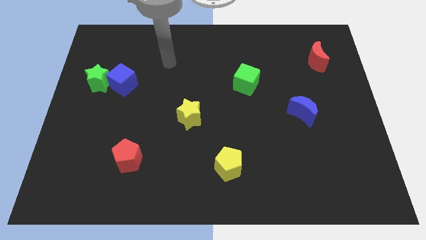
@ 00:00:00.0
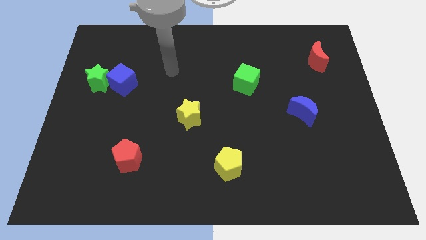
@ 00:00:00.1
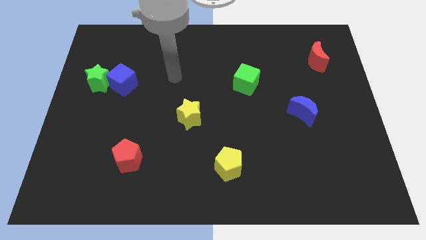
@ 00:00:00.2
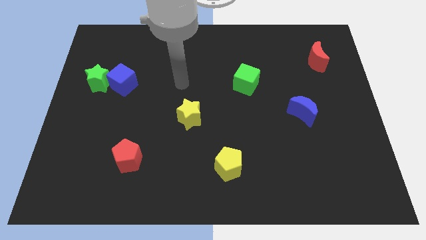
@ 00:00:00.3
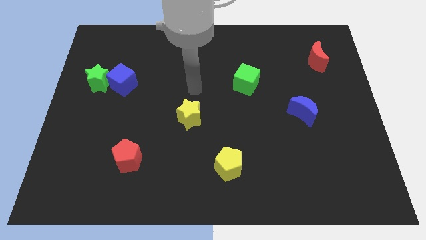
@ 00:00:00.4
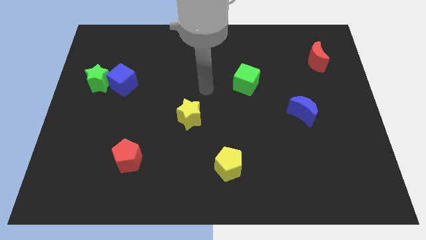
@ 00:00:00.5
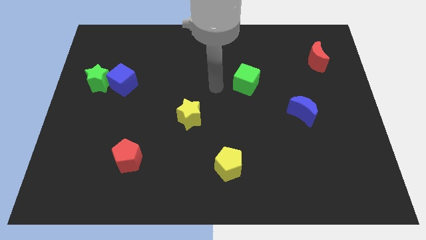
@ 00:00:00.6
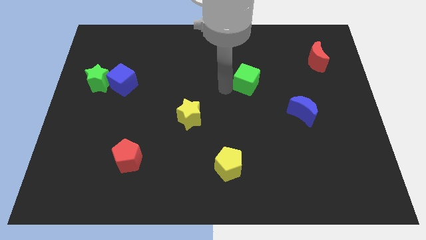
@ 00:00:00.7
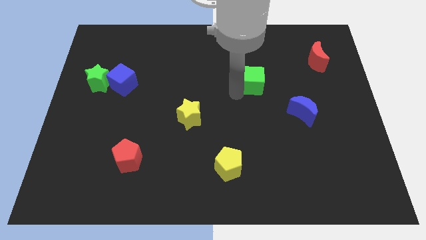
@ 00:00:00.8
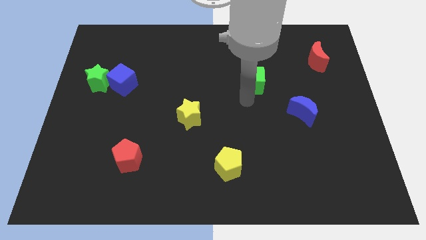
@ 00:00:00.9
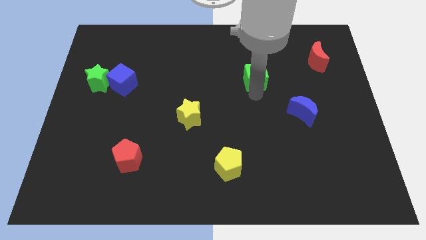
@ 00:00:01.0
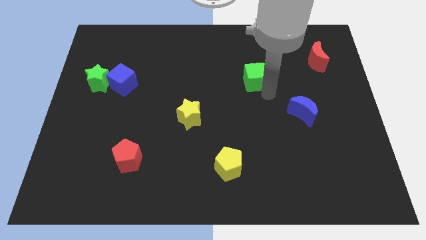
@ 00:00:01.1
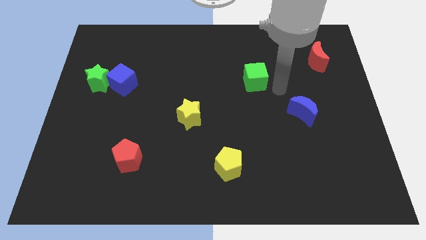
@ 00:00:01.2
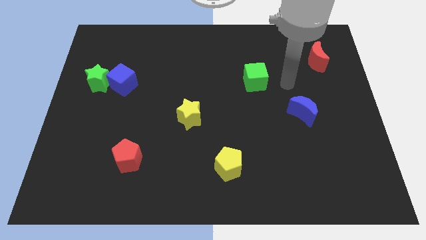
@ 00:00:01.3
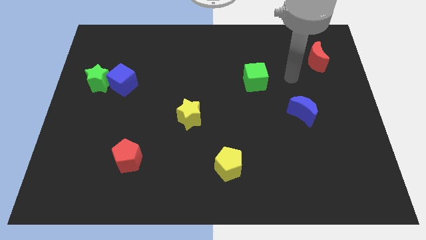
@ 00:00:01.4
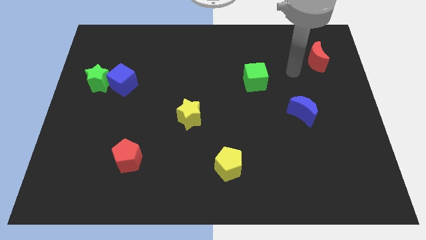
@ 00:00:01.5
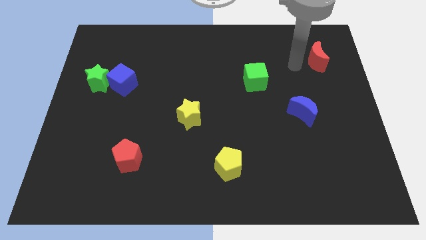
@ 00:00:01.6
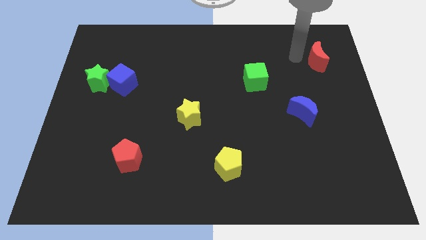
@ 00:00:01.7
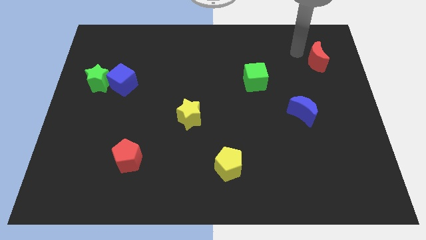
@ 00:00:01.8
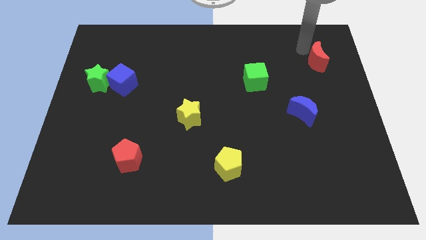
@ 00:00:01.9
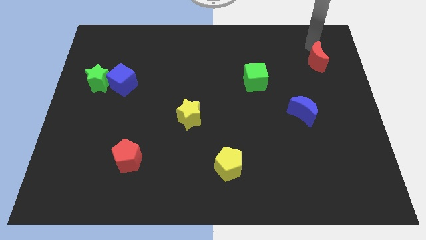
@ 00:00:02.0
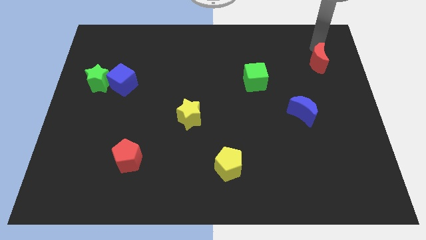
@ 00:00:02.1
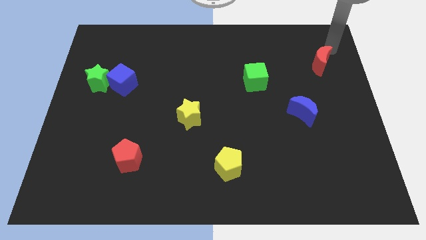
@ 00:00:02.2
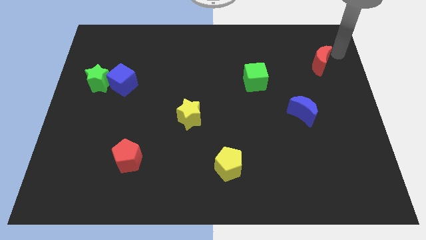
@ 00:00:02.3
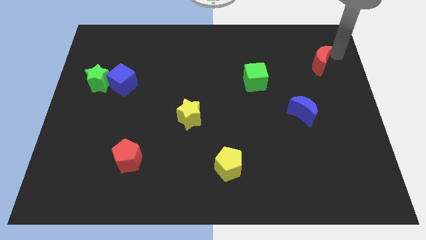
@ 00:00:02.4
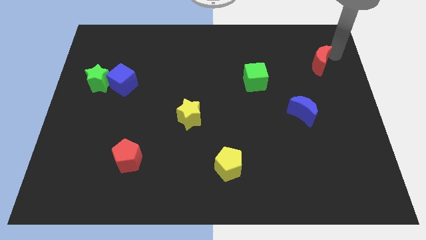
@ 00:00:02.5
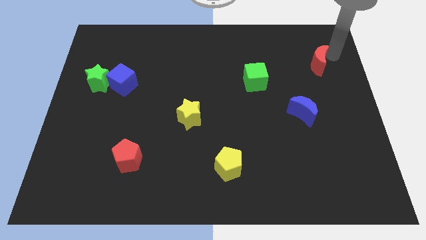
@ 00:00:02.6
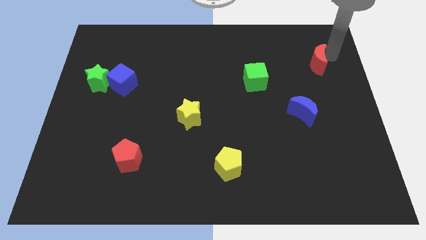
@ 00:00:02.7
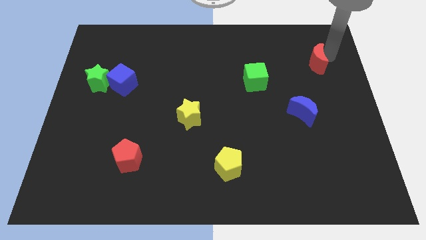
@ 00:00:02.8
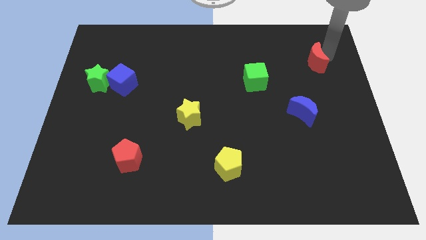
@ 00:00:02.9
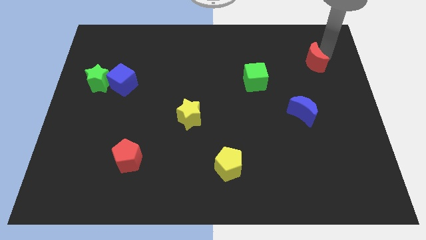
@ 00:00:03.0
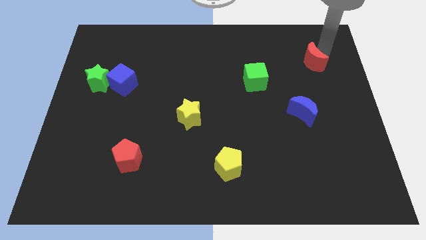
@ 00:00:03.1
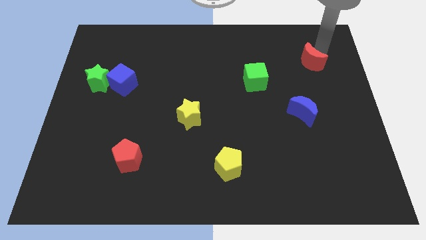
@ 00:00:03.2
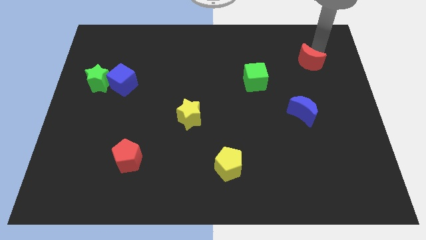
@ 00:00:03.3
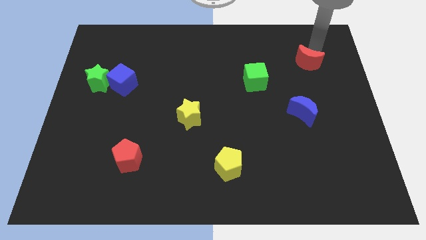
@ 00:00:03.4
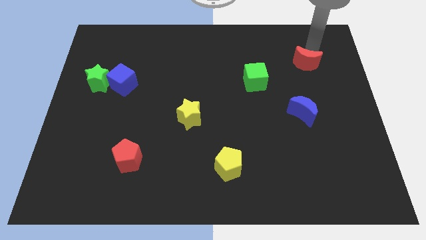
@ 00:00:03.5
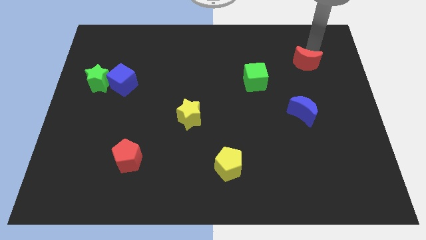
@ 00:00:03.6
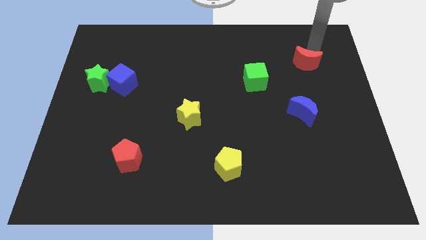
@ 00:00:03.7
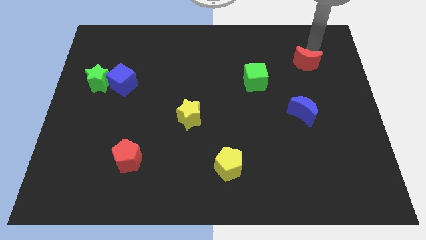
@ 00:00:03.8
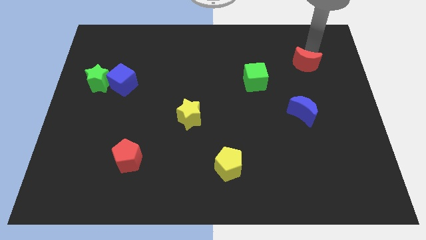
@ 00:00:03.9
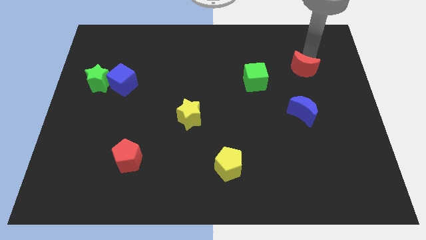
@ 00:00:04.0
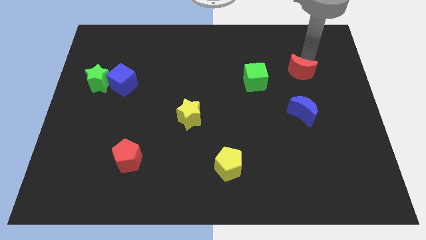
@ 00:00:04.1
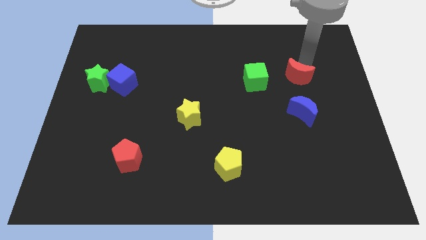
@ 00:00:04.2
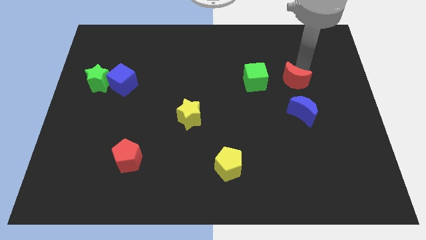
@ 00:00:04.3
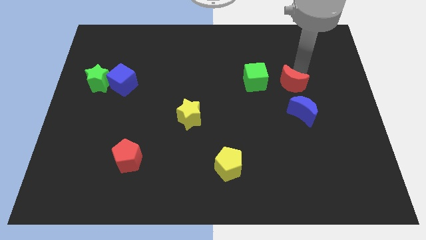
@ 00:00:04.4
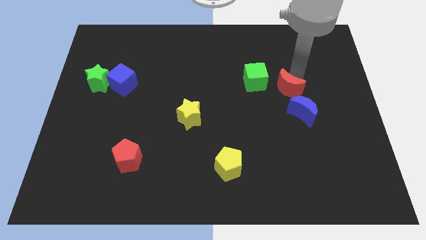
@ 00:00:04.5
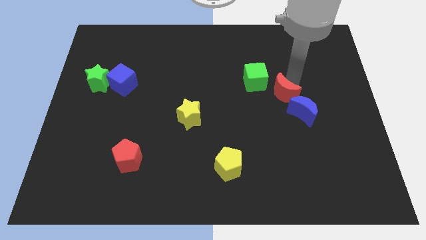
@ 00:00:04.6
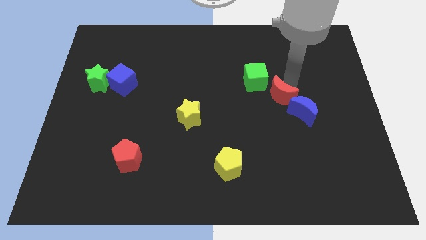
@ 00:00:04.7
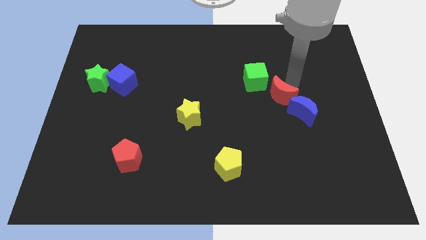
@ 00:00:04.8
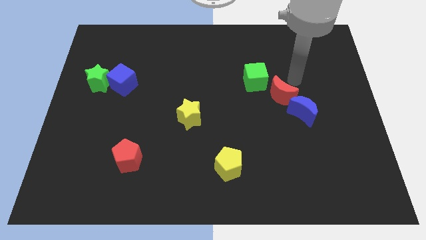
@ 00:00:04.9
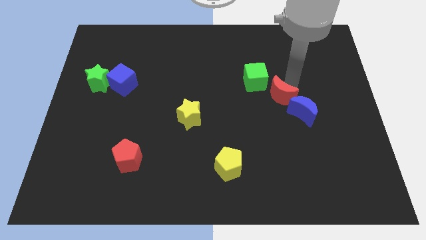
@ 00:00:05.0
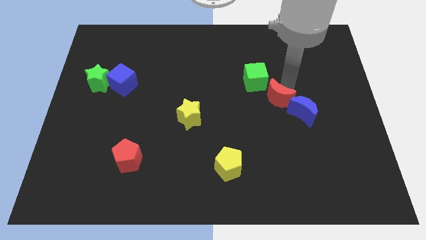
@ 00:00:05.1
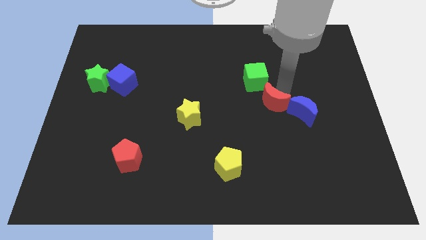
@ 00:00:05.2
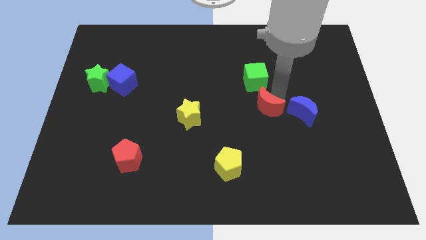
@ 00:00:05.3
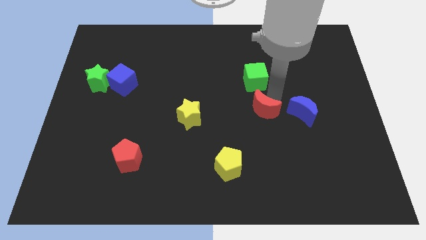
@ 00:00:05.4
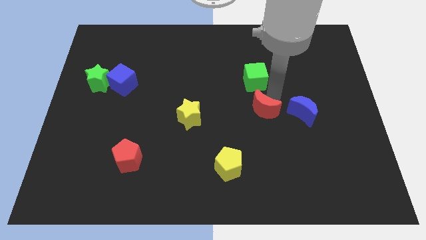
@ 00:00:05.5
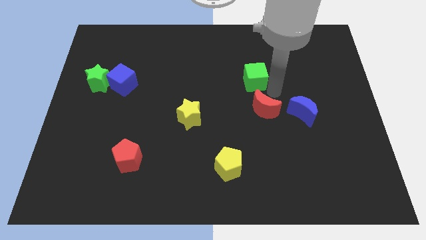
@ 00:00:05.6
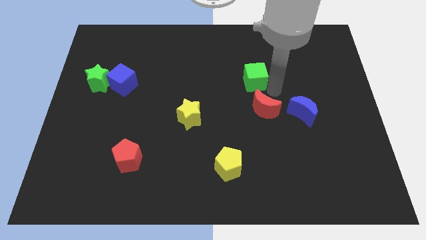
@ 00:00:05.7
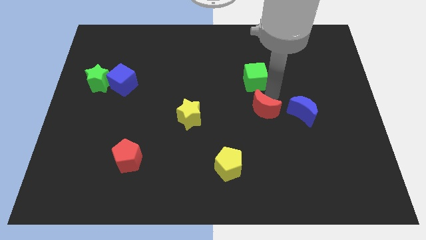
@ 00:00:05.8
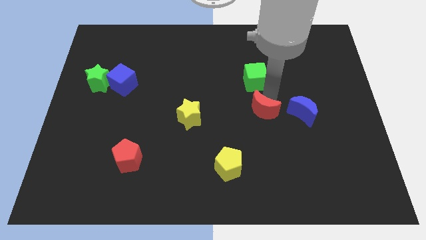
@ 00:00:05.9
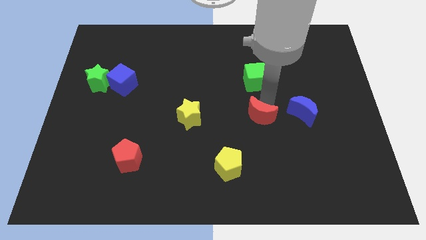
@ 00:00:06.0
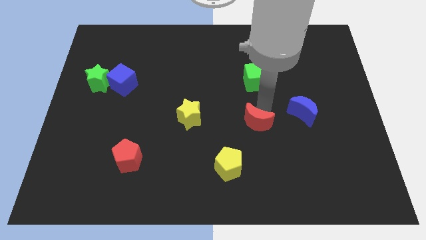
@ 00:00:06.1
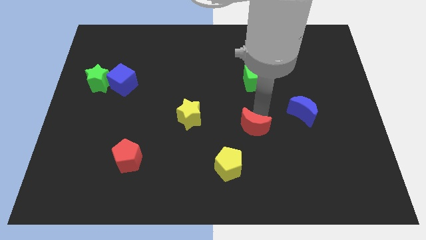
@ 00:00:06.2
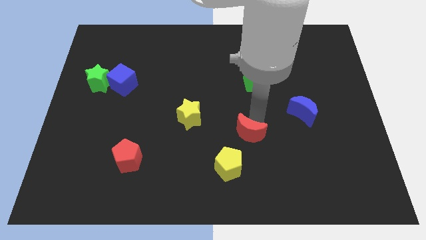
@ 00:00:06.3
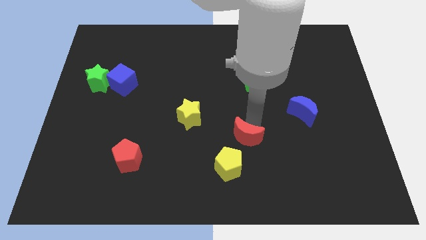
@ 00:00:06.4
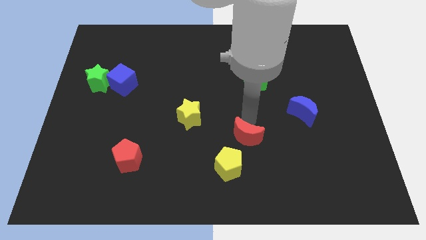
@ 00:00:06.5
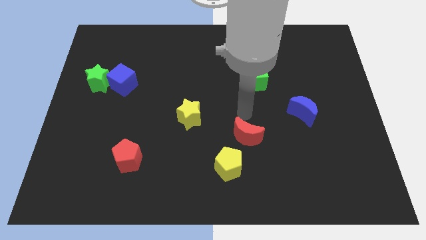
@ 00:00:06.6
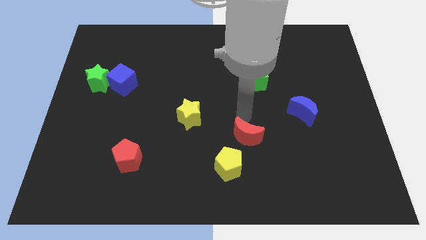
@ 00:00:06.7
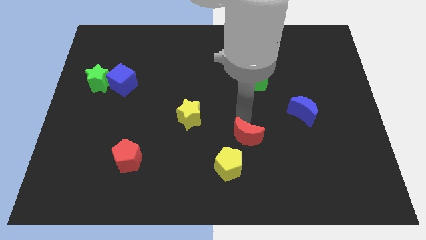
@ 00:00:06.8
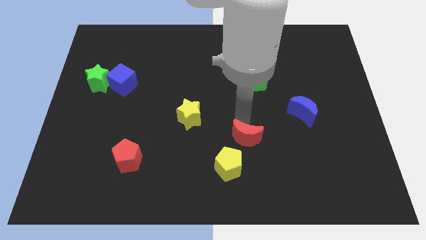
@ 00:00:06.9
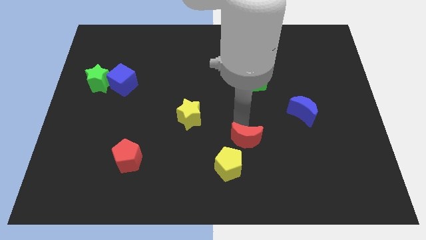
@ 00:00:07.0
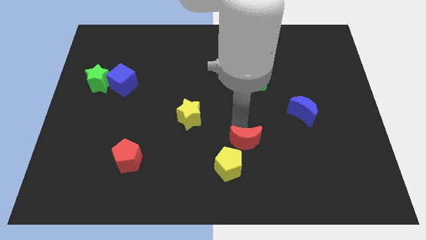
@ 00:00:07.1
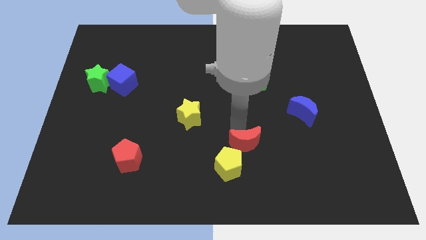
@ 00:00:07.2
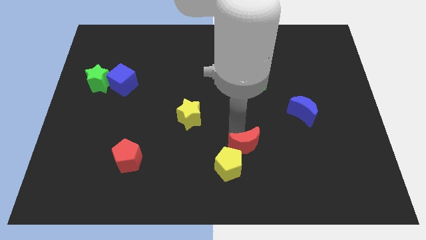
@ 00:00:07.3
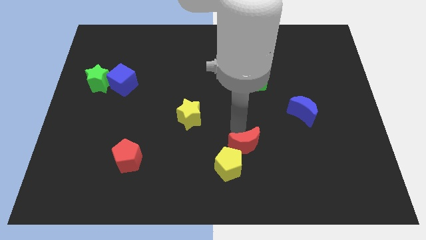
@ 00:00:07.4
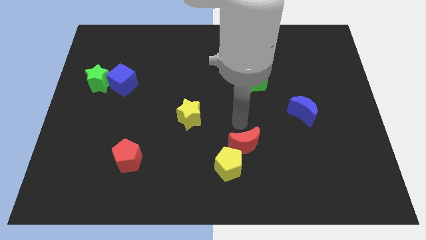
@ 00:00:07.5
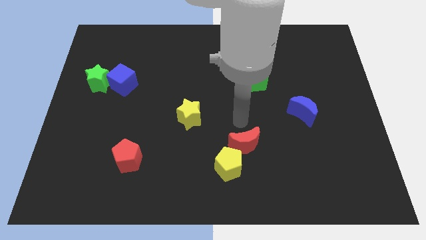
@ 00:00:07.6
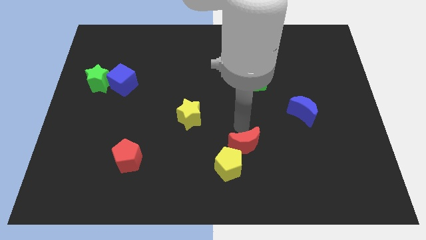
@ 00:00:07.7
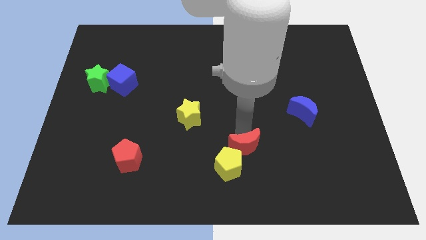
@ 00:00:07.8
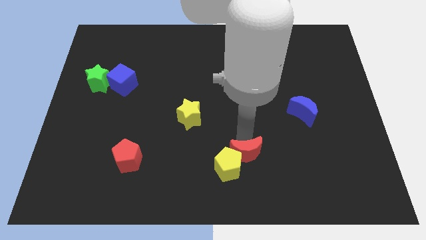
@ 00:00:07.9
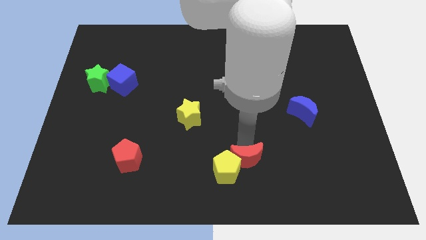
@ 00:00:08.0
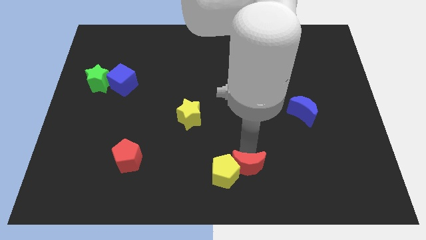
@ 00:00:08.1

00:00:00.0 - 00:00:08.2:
put the red moon to the bottom side
